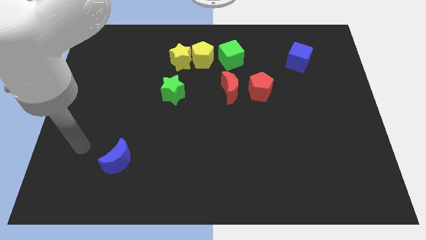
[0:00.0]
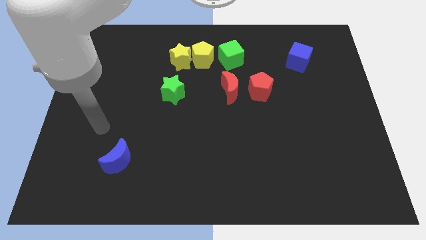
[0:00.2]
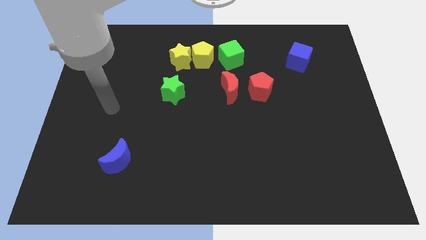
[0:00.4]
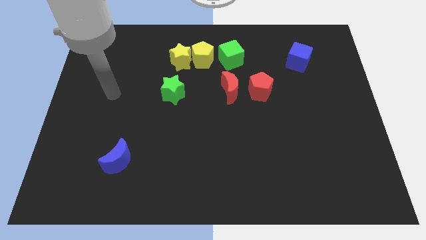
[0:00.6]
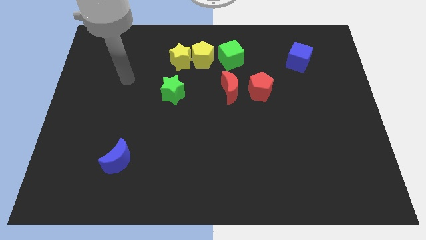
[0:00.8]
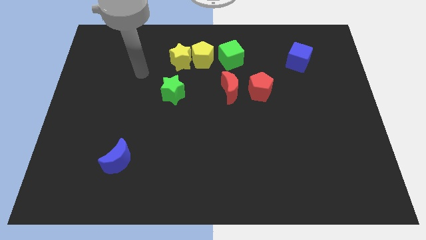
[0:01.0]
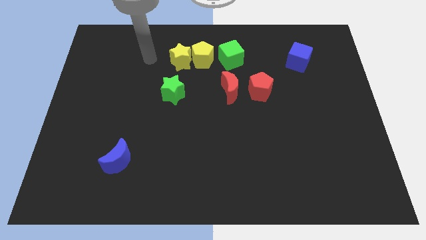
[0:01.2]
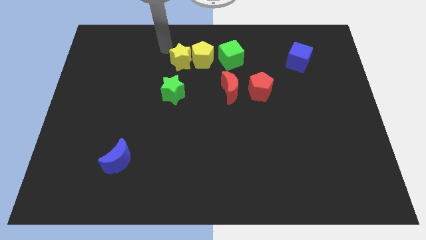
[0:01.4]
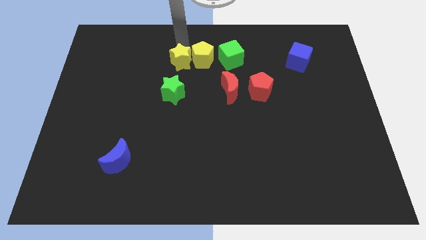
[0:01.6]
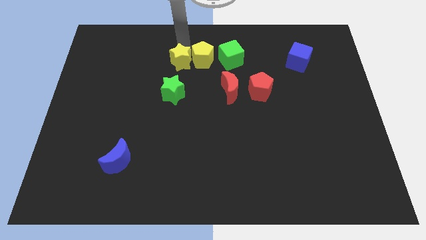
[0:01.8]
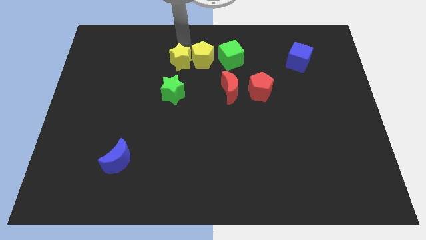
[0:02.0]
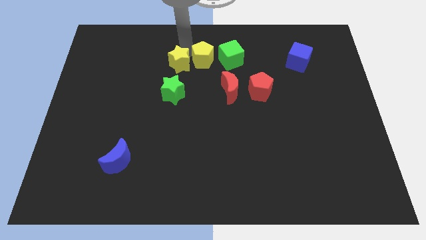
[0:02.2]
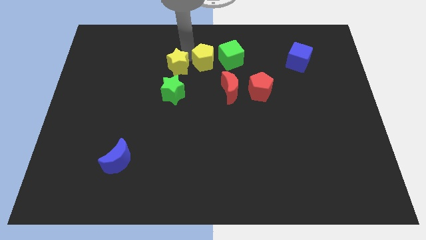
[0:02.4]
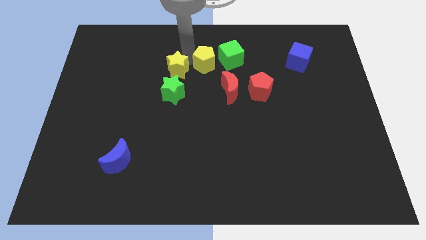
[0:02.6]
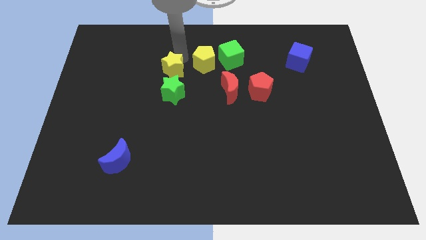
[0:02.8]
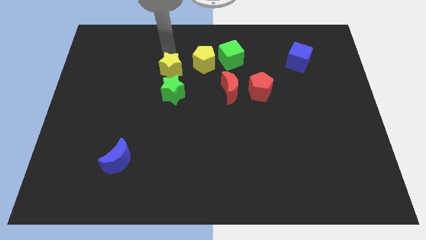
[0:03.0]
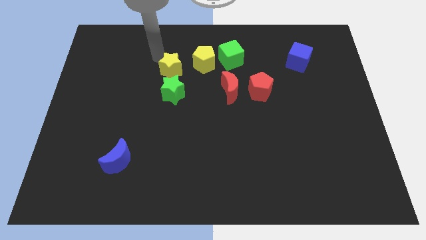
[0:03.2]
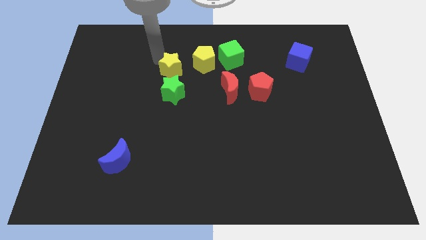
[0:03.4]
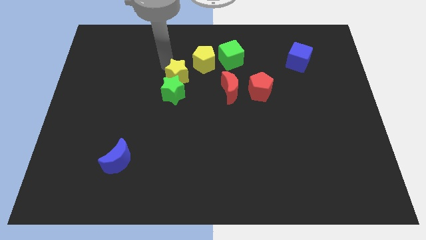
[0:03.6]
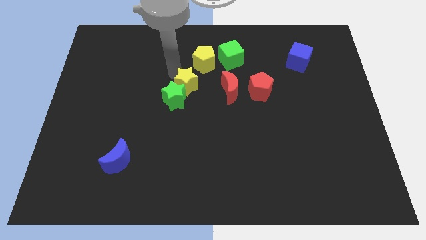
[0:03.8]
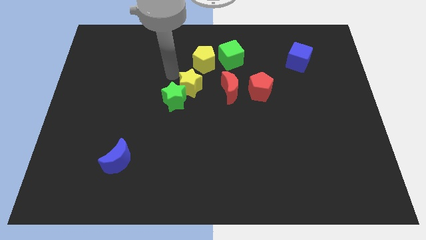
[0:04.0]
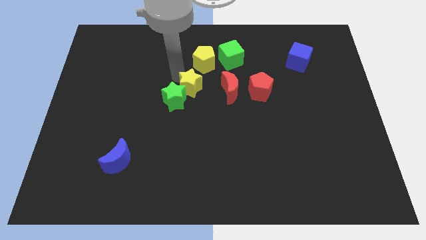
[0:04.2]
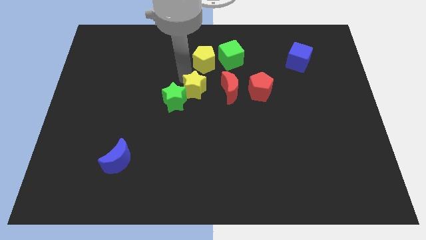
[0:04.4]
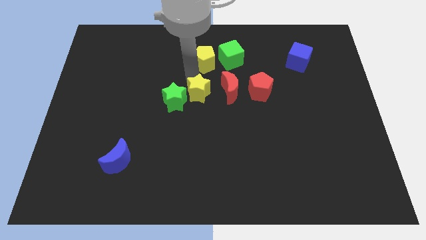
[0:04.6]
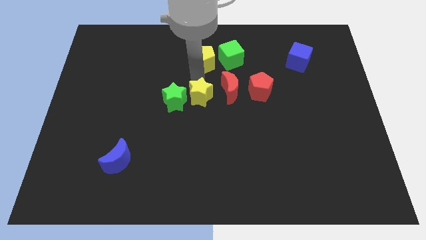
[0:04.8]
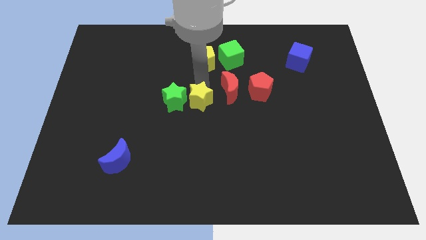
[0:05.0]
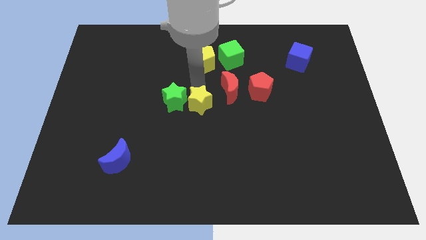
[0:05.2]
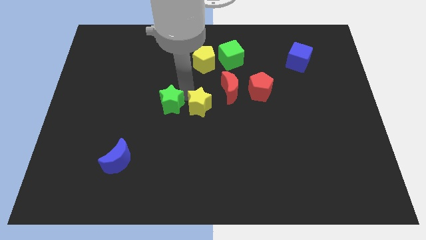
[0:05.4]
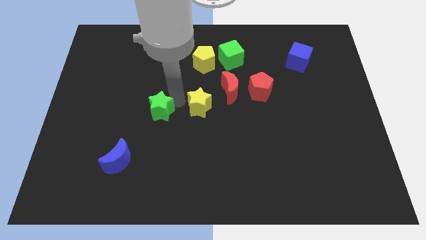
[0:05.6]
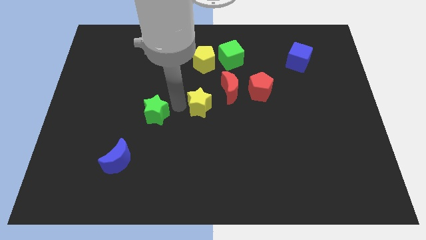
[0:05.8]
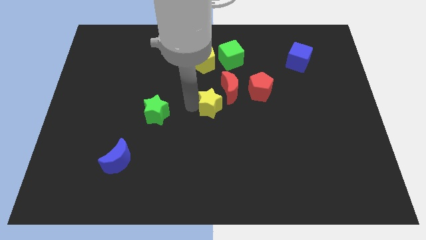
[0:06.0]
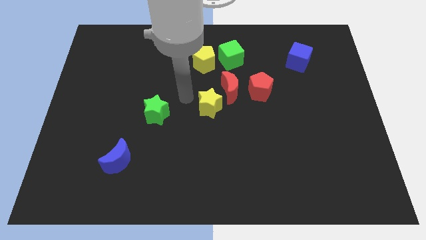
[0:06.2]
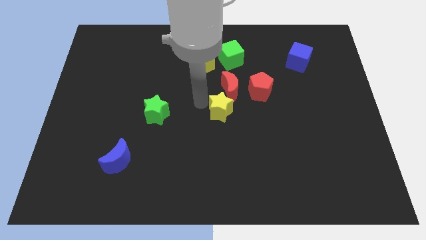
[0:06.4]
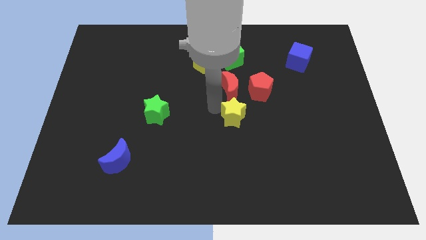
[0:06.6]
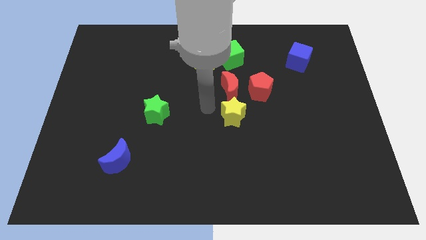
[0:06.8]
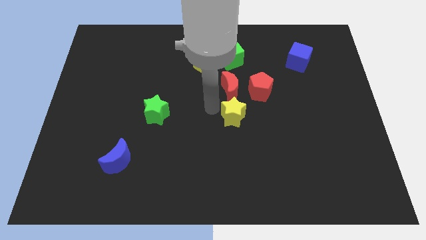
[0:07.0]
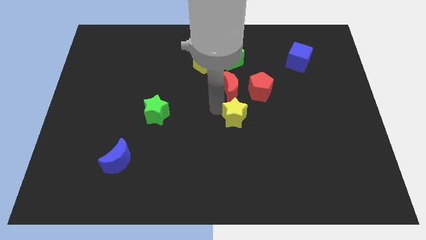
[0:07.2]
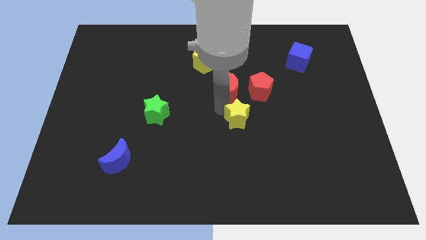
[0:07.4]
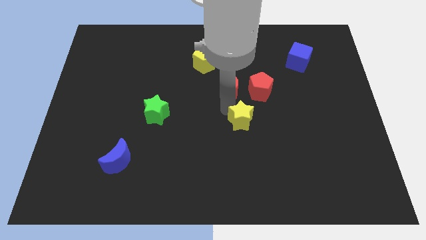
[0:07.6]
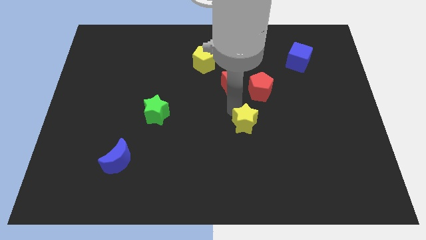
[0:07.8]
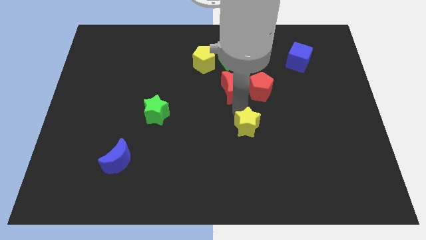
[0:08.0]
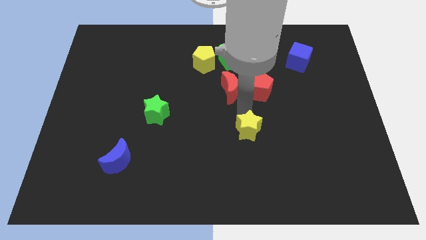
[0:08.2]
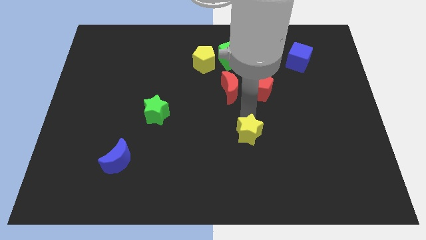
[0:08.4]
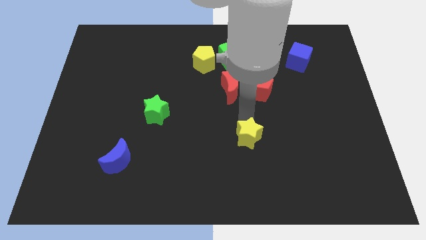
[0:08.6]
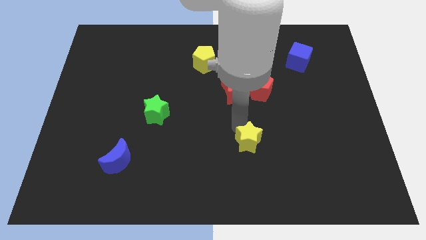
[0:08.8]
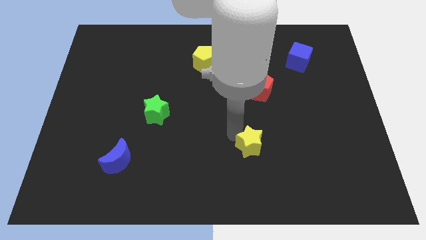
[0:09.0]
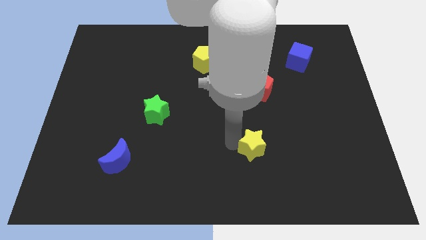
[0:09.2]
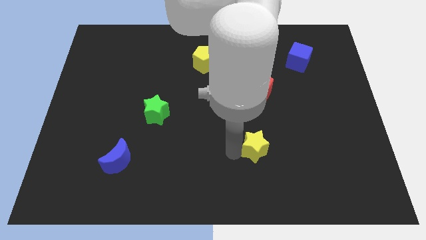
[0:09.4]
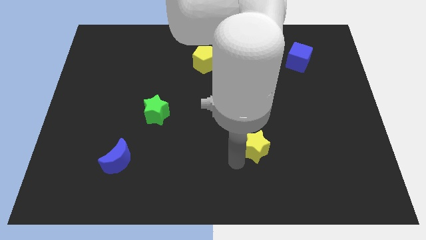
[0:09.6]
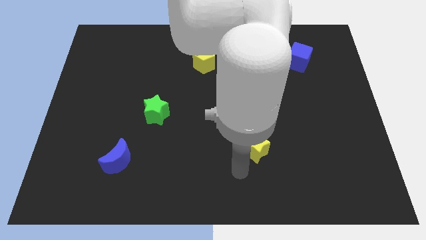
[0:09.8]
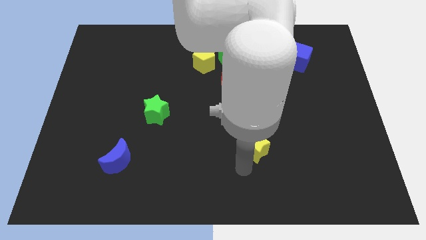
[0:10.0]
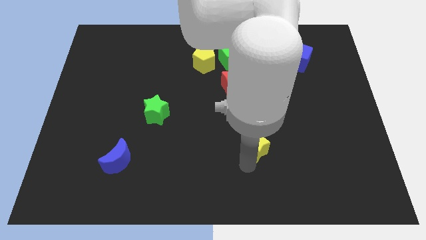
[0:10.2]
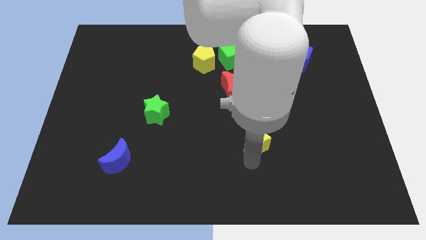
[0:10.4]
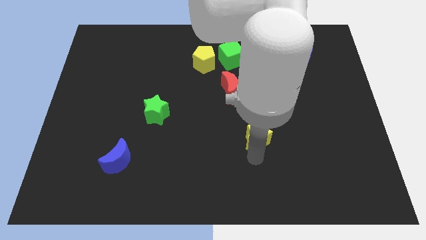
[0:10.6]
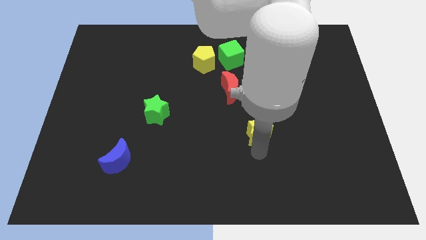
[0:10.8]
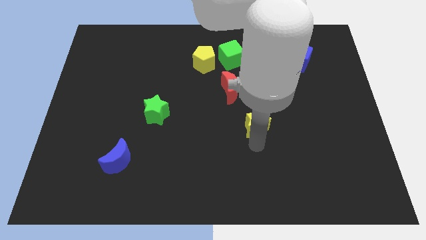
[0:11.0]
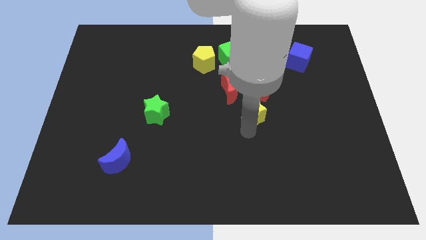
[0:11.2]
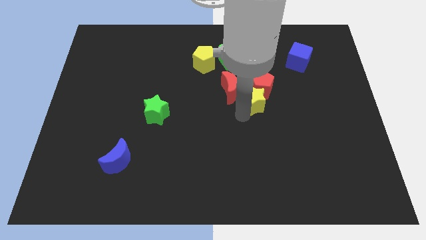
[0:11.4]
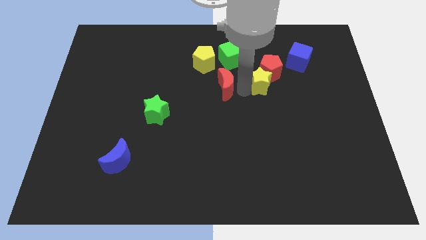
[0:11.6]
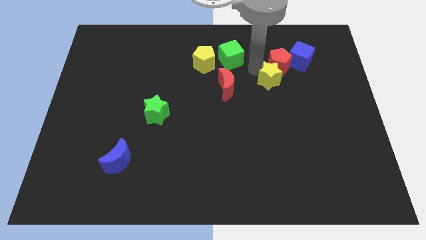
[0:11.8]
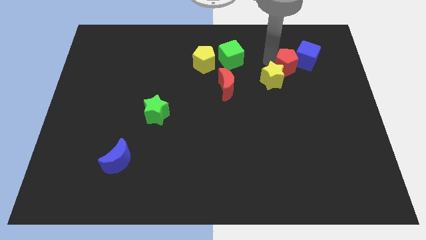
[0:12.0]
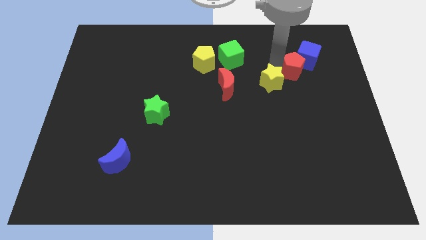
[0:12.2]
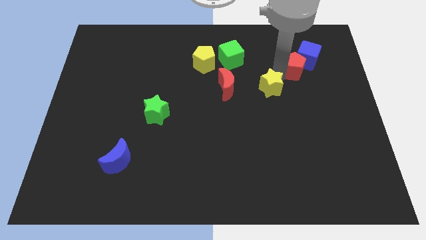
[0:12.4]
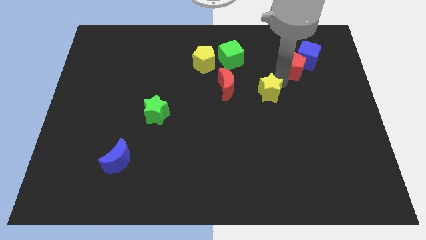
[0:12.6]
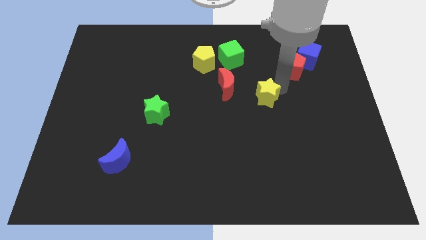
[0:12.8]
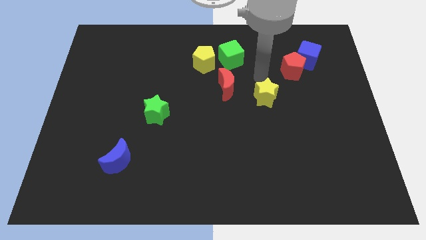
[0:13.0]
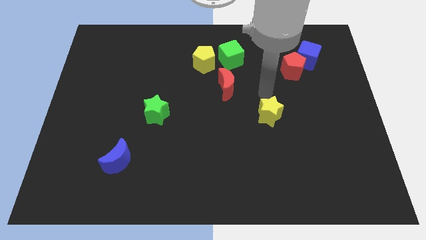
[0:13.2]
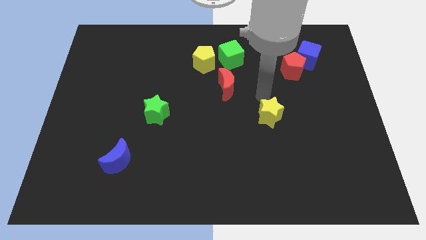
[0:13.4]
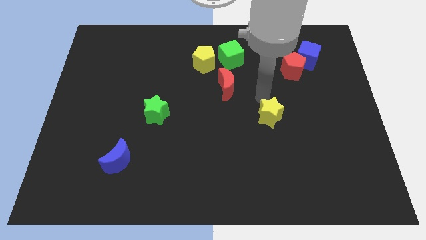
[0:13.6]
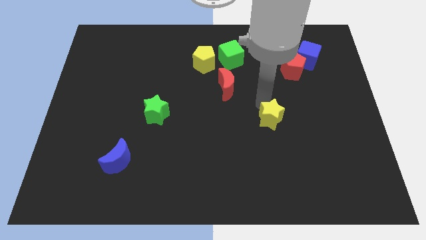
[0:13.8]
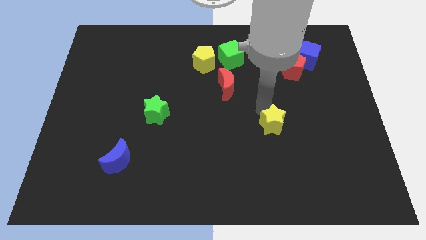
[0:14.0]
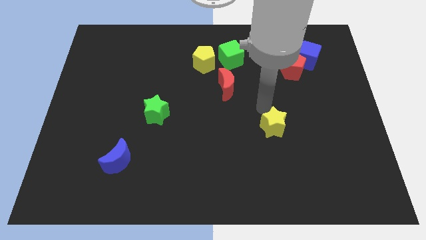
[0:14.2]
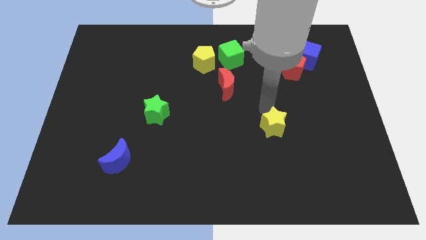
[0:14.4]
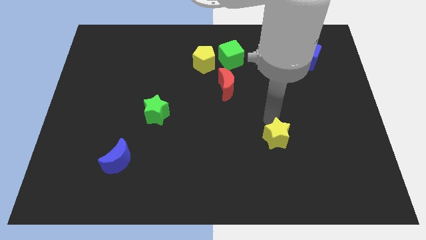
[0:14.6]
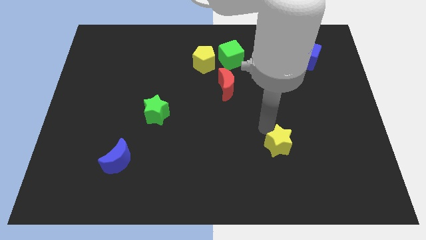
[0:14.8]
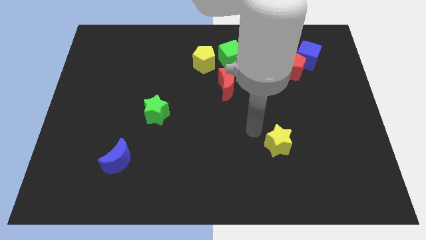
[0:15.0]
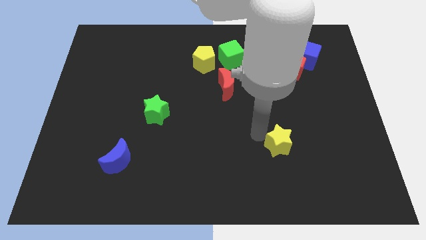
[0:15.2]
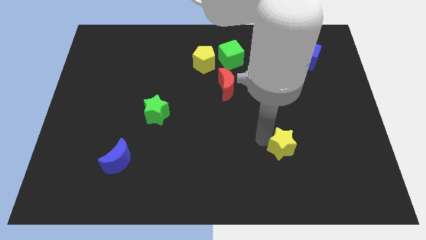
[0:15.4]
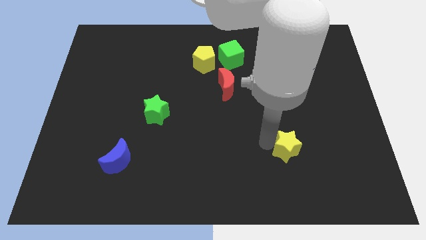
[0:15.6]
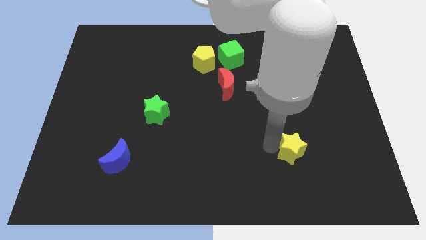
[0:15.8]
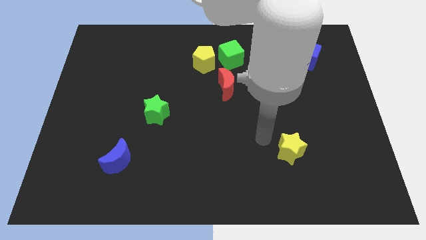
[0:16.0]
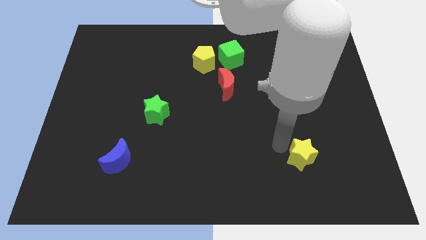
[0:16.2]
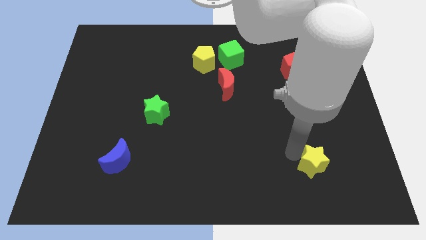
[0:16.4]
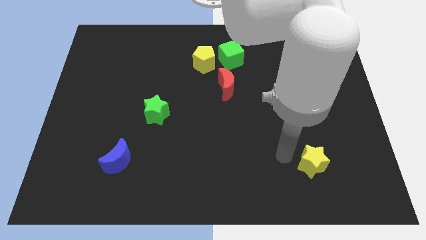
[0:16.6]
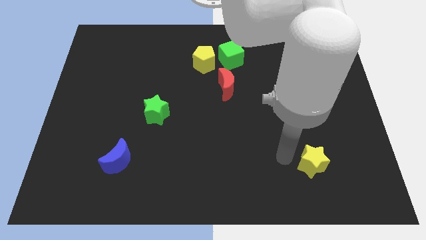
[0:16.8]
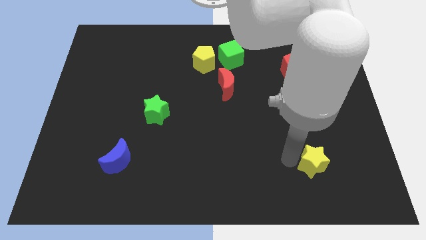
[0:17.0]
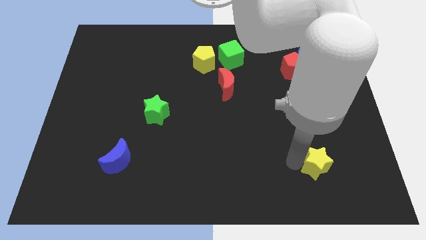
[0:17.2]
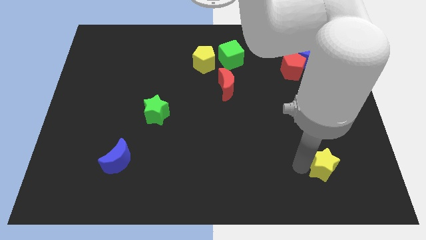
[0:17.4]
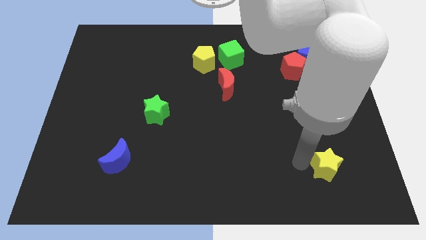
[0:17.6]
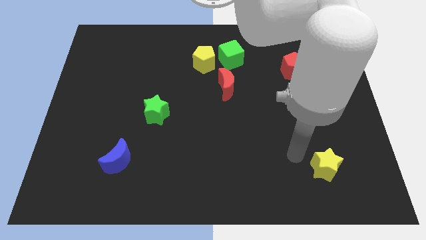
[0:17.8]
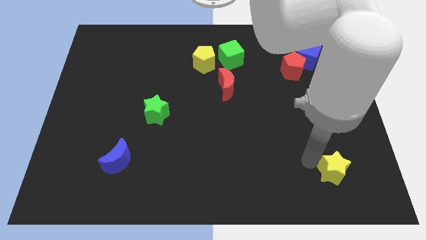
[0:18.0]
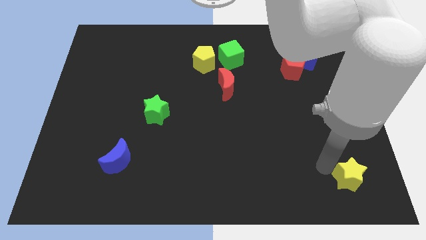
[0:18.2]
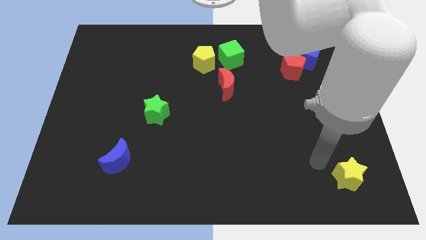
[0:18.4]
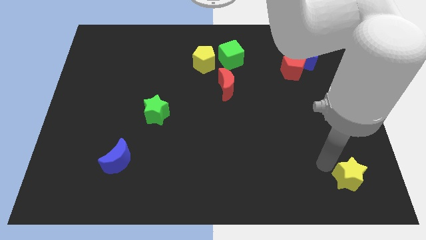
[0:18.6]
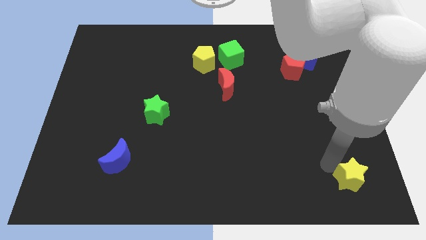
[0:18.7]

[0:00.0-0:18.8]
push the yellow star to the bottom right of the board
